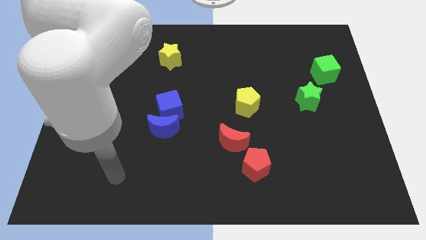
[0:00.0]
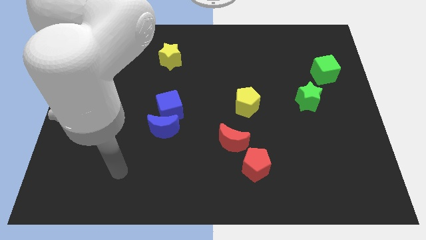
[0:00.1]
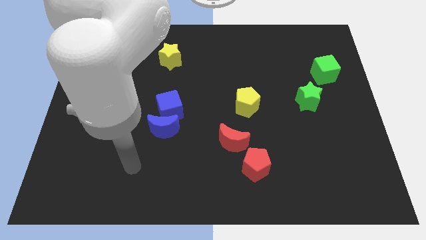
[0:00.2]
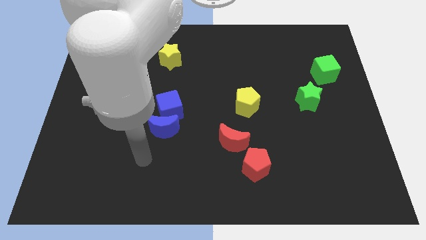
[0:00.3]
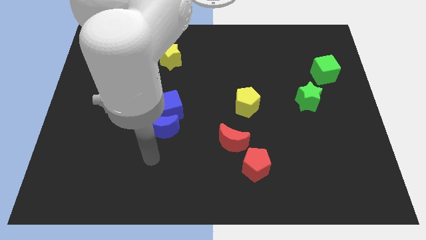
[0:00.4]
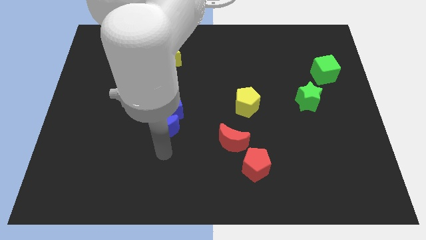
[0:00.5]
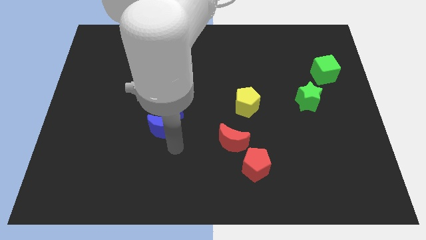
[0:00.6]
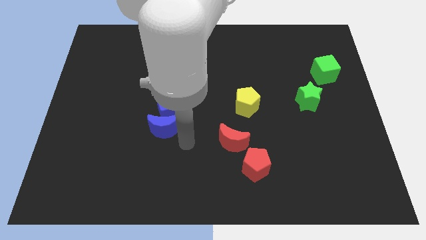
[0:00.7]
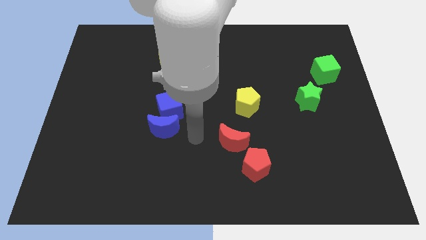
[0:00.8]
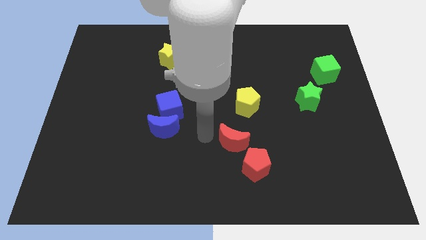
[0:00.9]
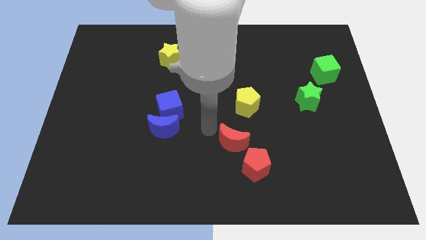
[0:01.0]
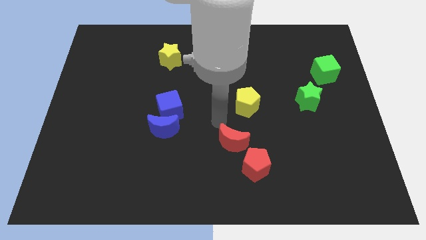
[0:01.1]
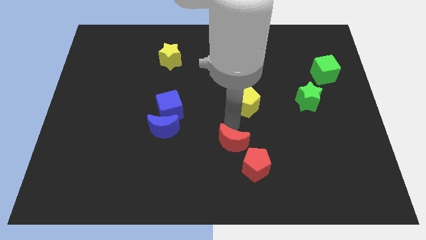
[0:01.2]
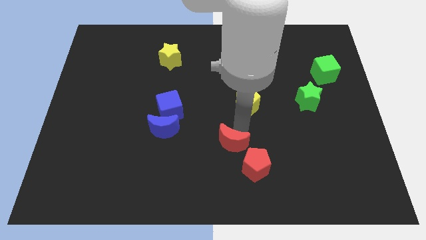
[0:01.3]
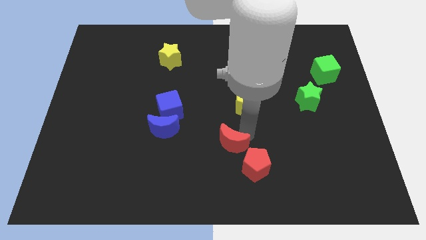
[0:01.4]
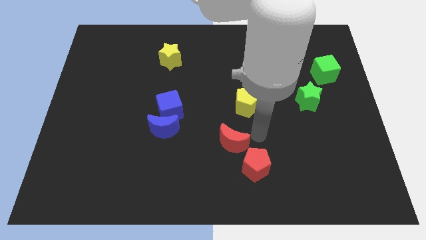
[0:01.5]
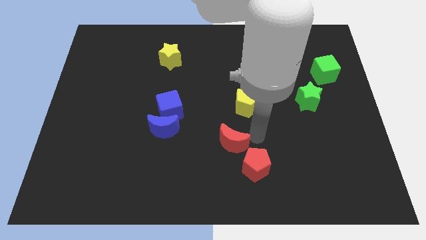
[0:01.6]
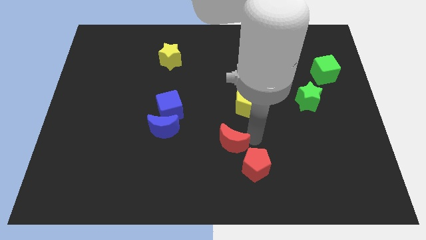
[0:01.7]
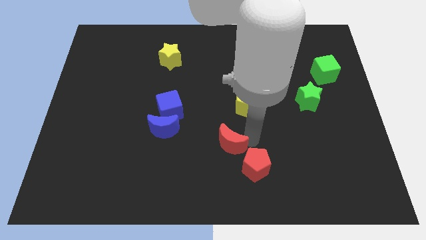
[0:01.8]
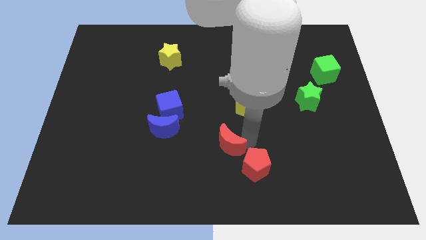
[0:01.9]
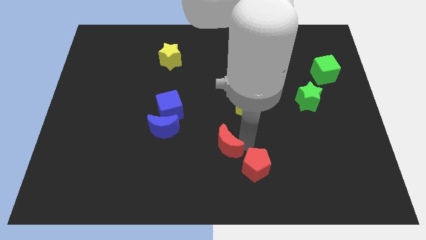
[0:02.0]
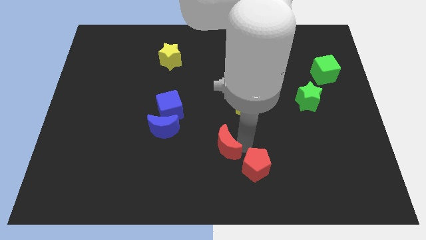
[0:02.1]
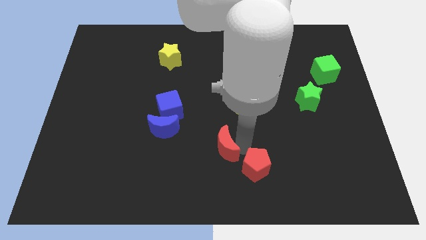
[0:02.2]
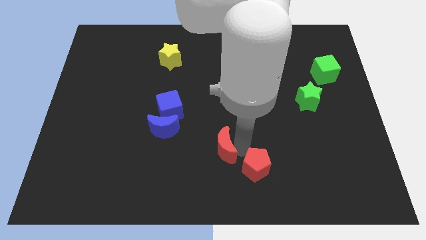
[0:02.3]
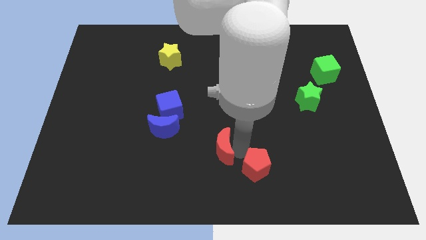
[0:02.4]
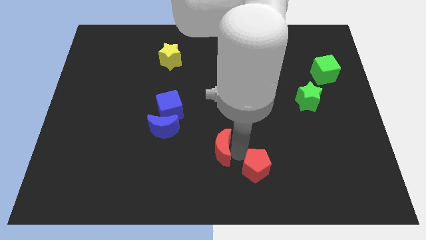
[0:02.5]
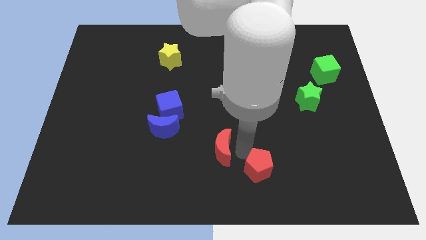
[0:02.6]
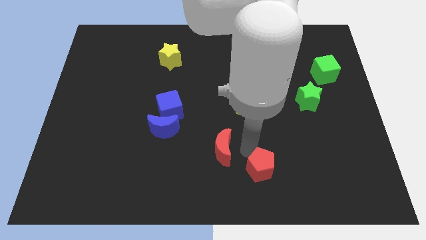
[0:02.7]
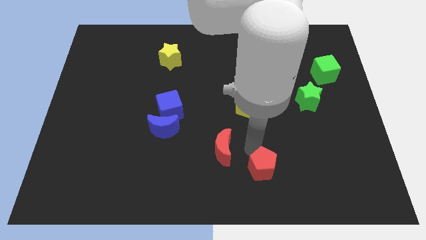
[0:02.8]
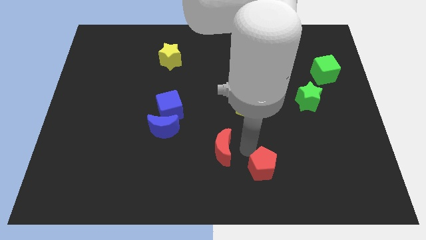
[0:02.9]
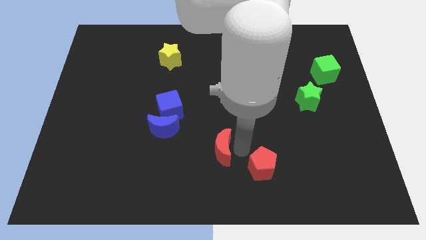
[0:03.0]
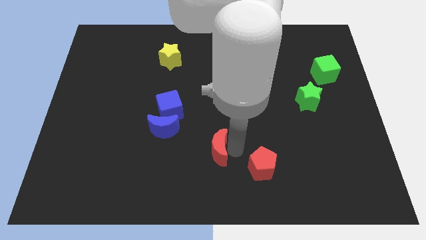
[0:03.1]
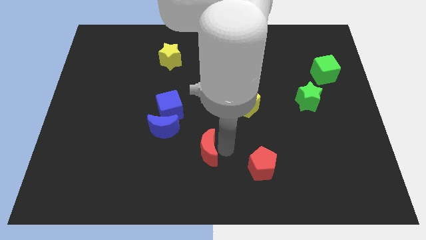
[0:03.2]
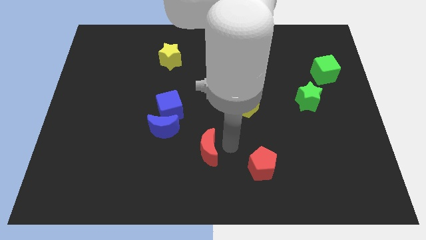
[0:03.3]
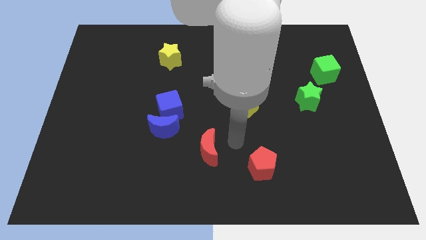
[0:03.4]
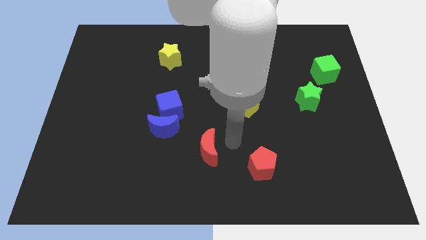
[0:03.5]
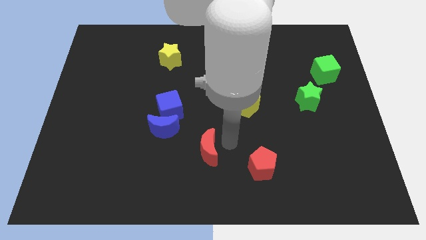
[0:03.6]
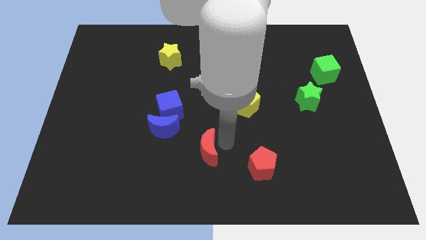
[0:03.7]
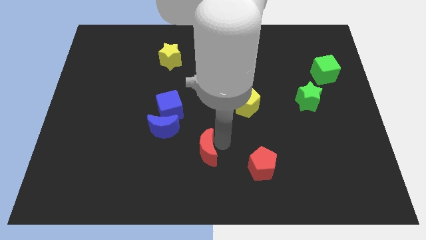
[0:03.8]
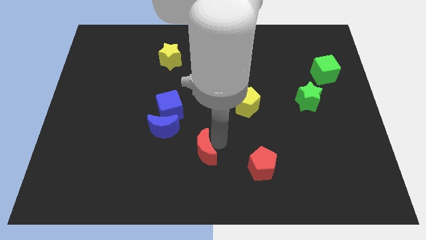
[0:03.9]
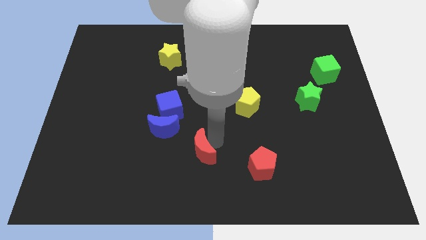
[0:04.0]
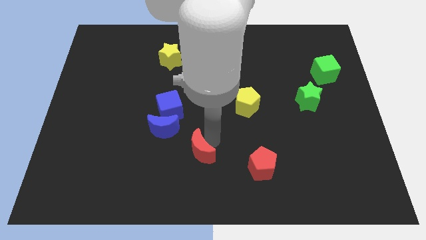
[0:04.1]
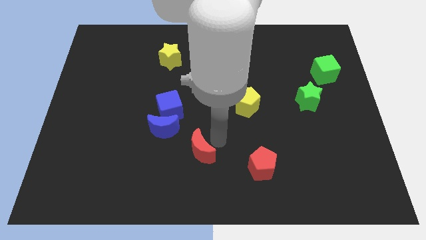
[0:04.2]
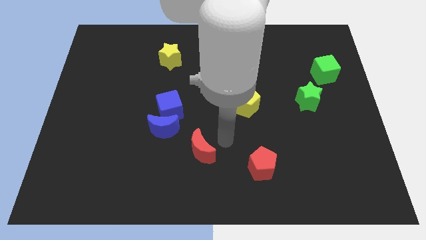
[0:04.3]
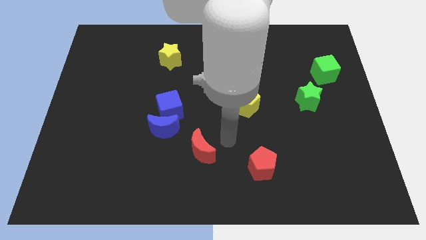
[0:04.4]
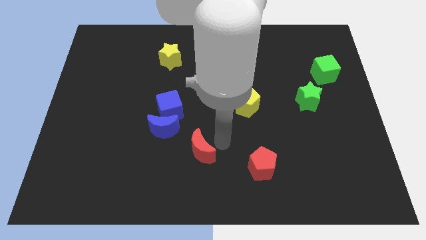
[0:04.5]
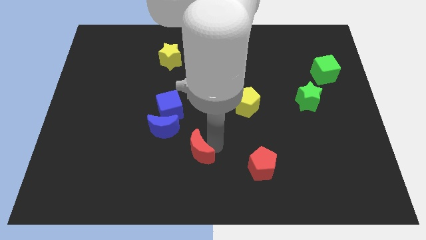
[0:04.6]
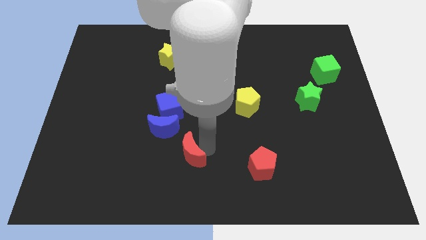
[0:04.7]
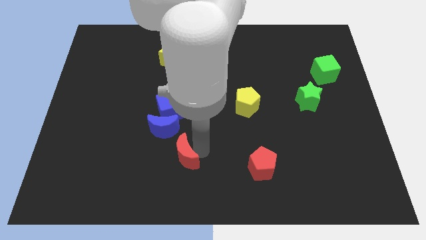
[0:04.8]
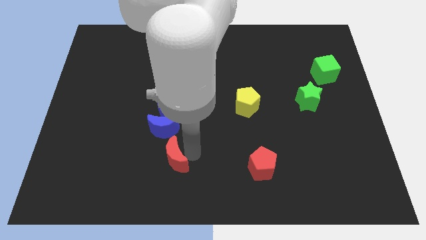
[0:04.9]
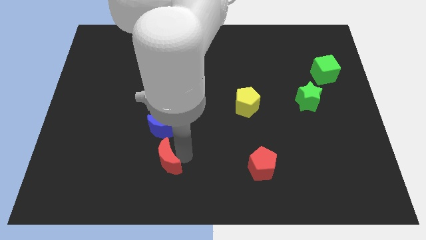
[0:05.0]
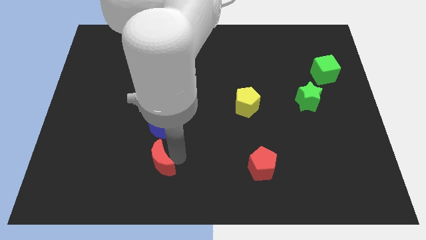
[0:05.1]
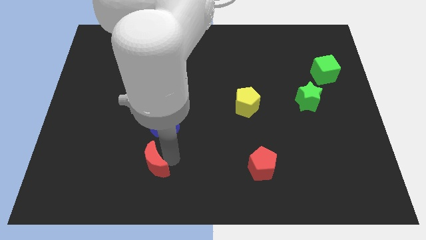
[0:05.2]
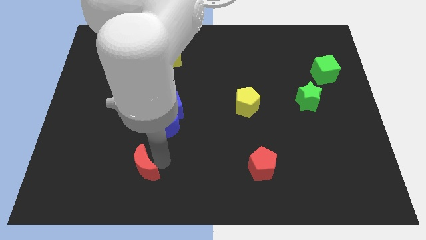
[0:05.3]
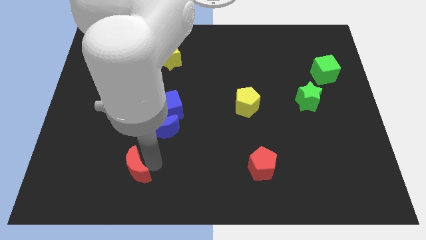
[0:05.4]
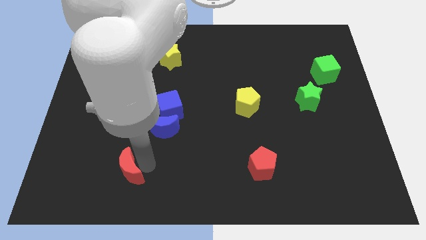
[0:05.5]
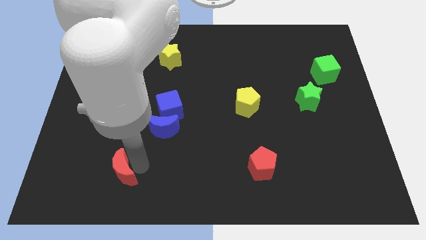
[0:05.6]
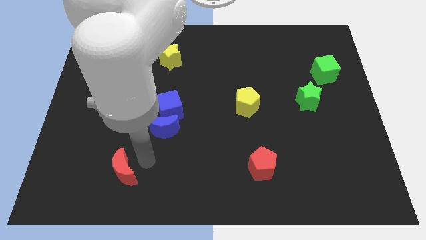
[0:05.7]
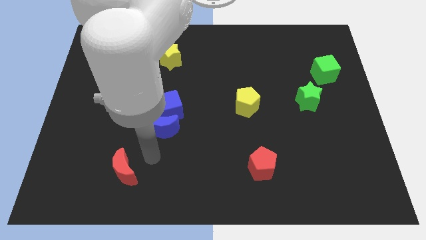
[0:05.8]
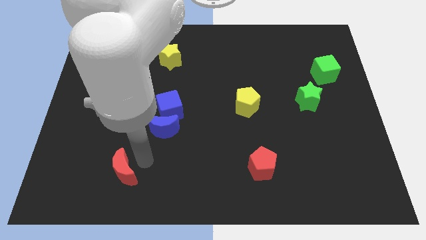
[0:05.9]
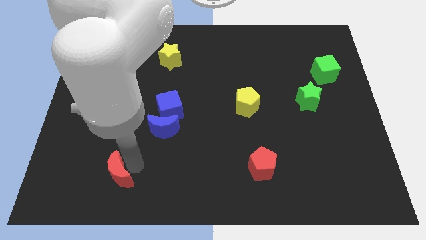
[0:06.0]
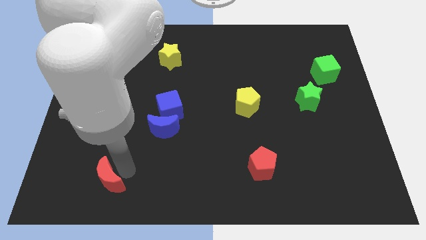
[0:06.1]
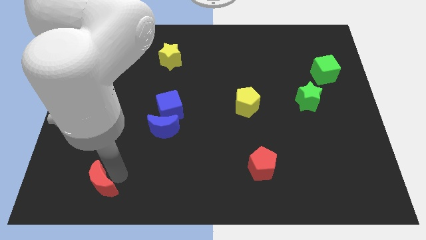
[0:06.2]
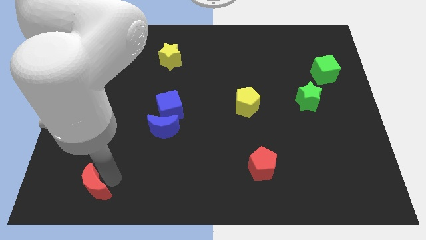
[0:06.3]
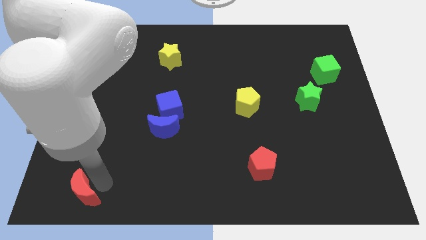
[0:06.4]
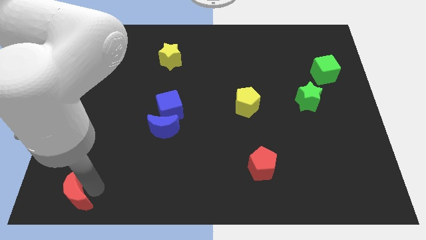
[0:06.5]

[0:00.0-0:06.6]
push the red moon to the bottom left

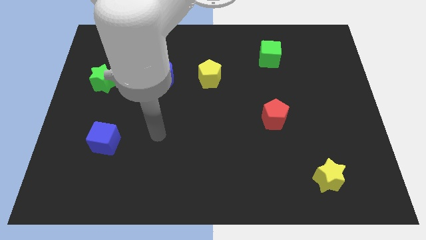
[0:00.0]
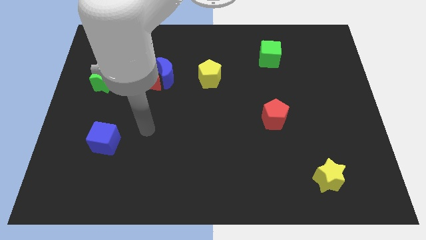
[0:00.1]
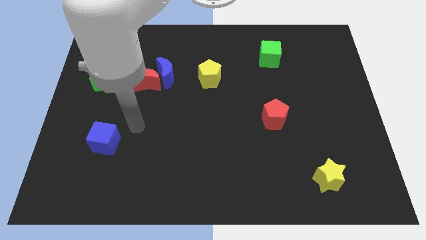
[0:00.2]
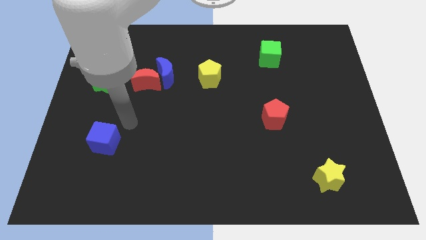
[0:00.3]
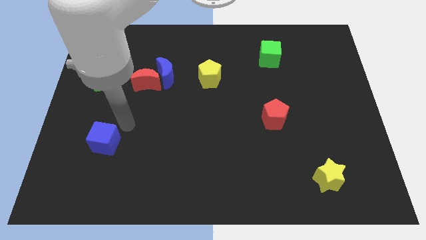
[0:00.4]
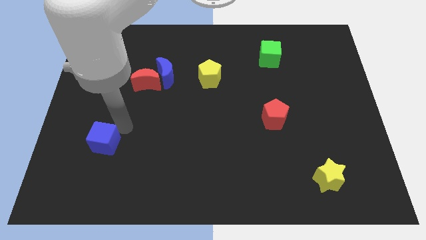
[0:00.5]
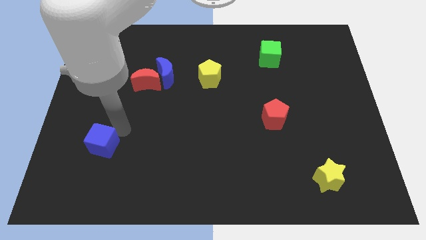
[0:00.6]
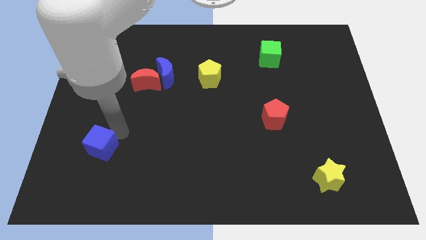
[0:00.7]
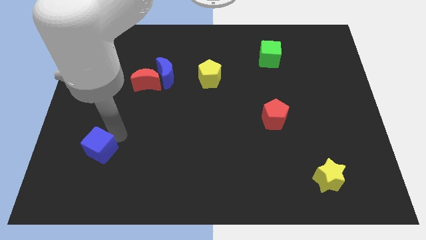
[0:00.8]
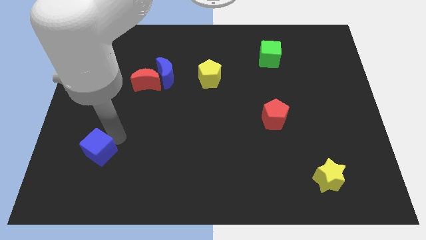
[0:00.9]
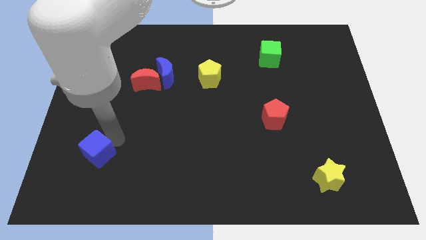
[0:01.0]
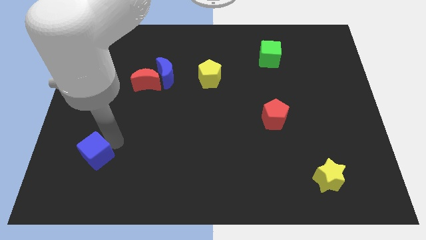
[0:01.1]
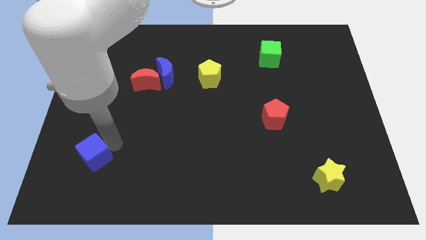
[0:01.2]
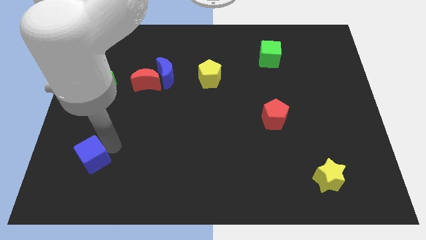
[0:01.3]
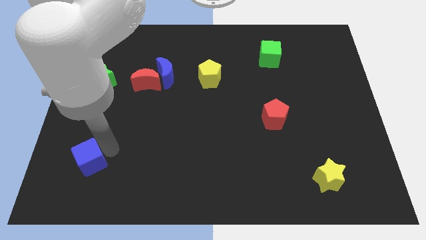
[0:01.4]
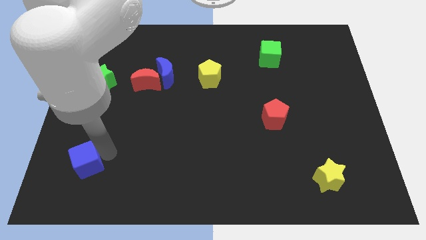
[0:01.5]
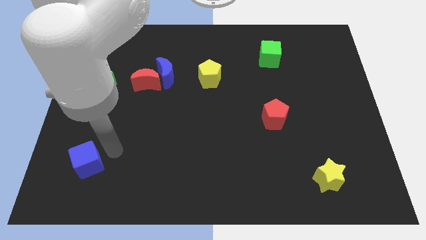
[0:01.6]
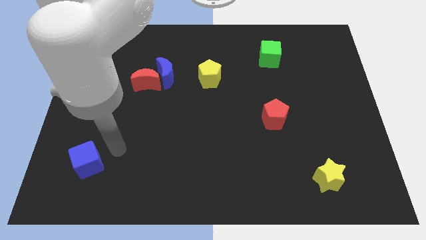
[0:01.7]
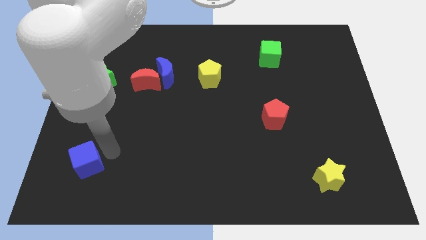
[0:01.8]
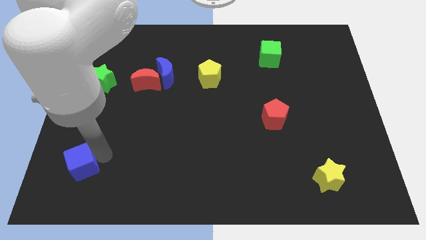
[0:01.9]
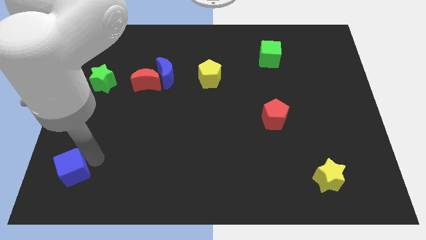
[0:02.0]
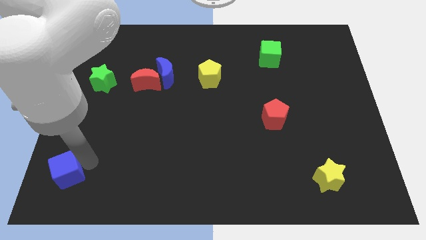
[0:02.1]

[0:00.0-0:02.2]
push the blue cube to the lower left corner
